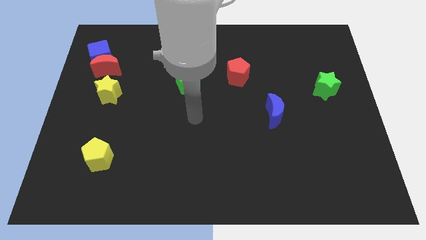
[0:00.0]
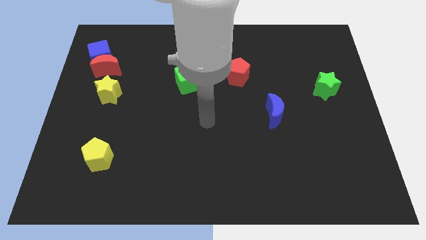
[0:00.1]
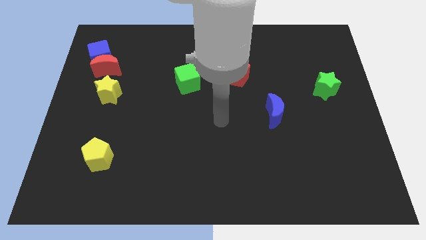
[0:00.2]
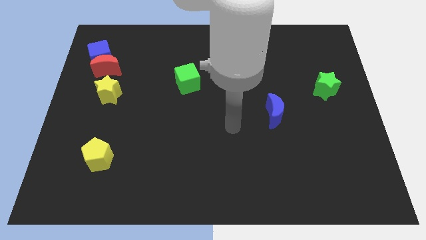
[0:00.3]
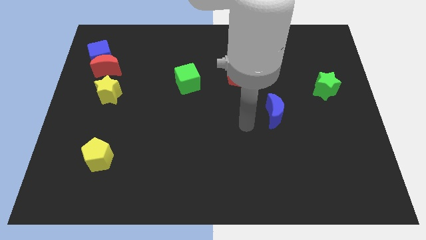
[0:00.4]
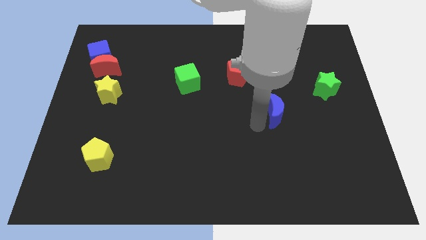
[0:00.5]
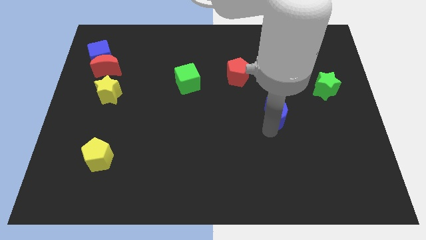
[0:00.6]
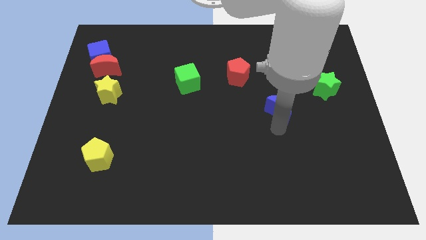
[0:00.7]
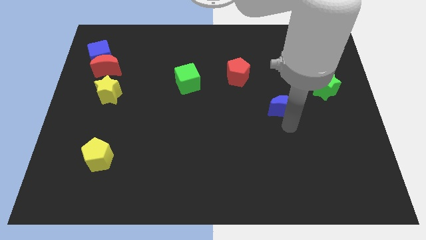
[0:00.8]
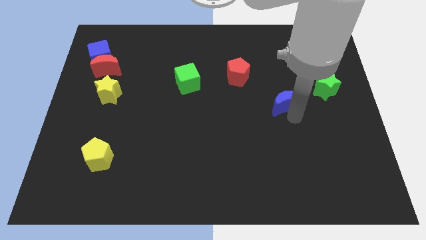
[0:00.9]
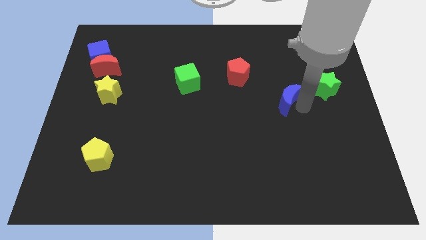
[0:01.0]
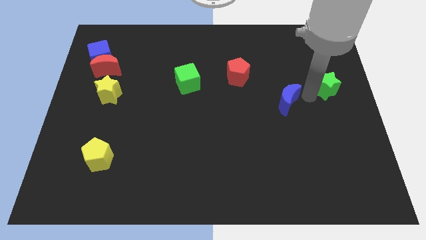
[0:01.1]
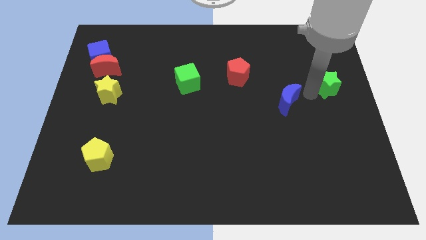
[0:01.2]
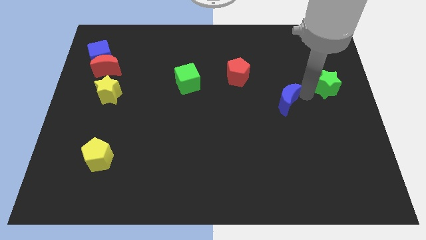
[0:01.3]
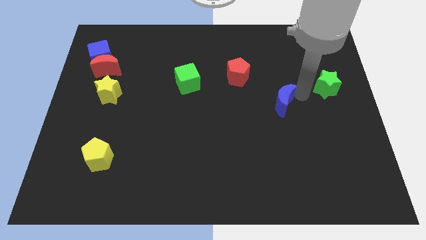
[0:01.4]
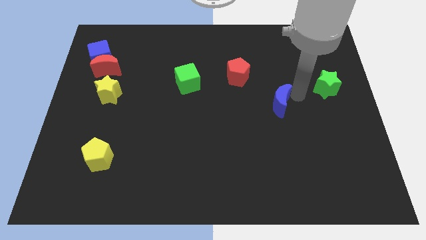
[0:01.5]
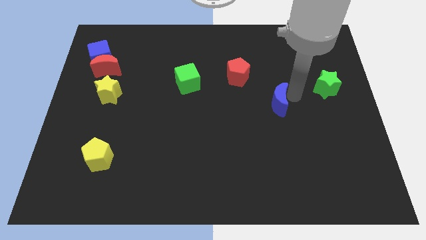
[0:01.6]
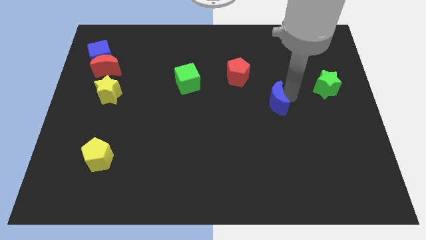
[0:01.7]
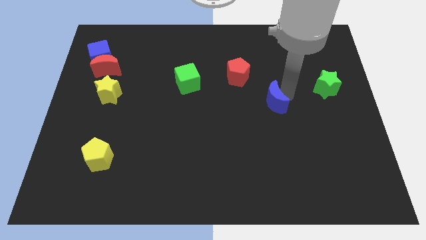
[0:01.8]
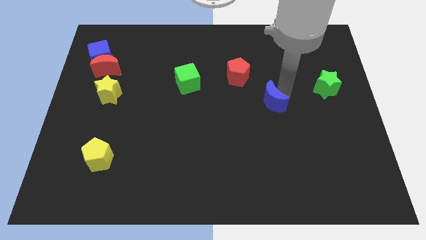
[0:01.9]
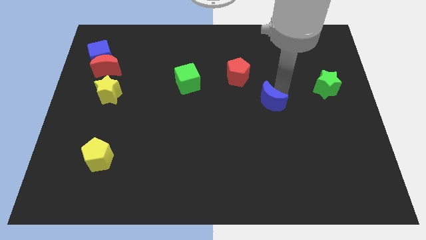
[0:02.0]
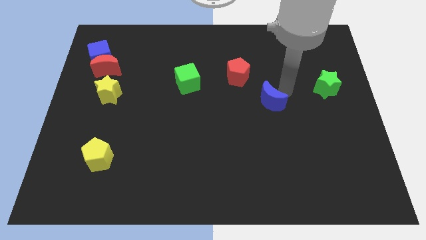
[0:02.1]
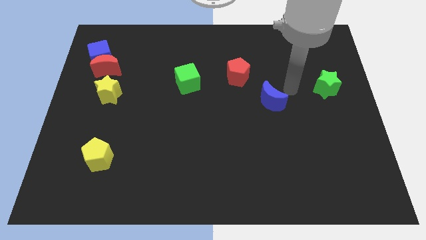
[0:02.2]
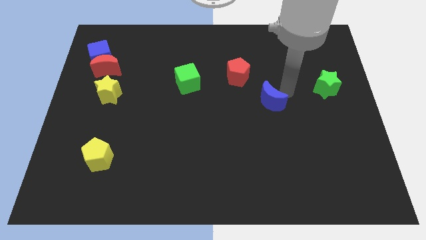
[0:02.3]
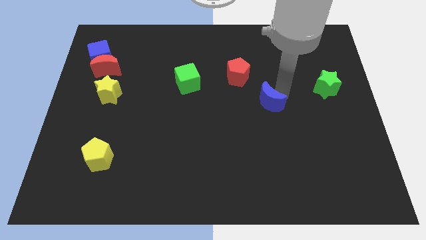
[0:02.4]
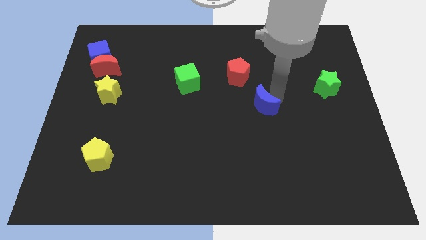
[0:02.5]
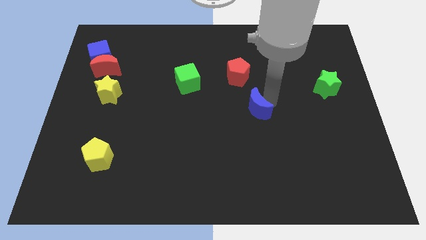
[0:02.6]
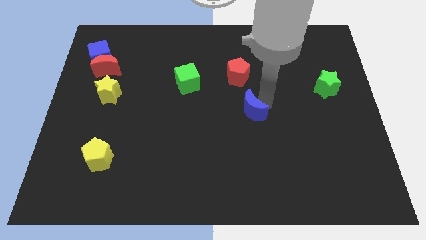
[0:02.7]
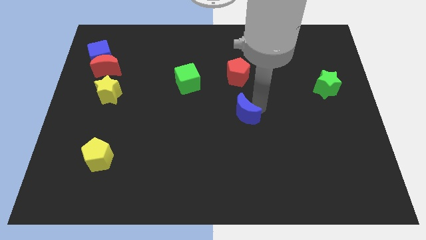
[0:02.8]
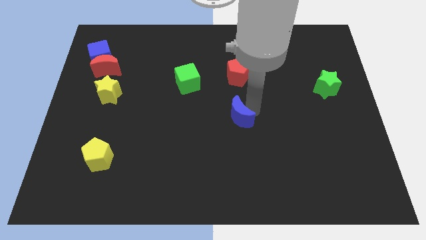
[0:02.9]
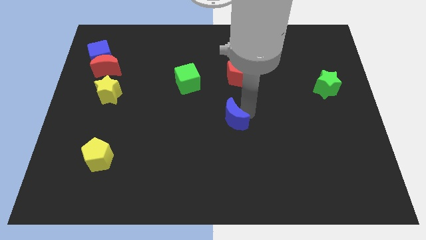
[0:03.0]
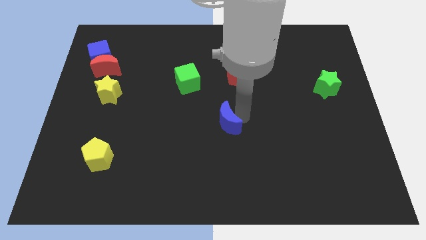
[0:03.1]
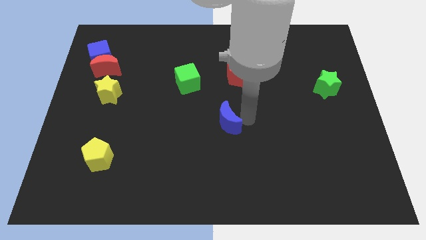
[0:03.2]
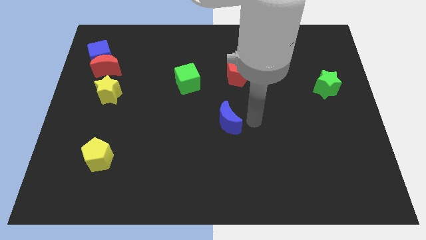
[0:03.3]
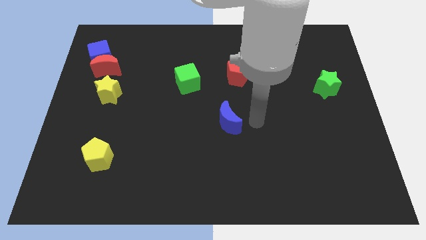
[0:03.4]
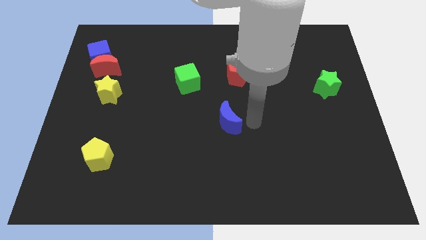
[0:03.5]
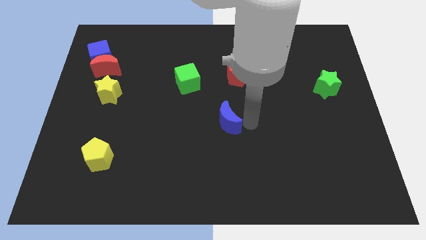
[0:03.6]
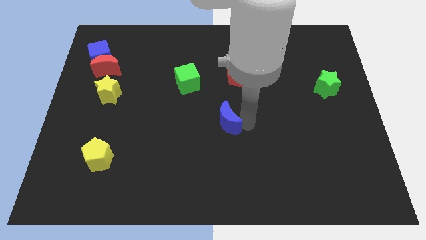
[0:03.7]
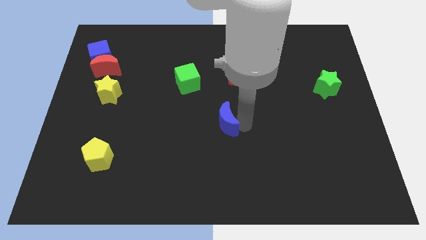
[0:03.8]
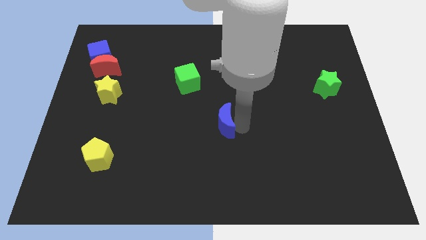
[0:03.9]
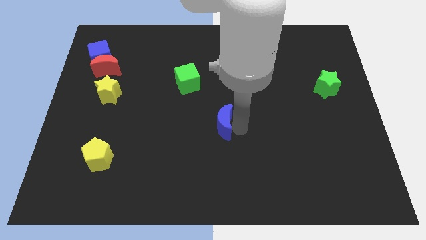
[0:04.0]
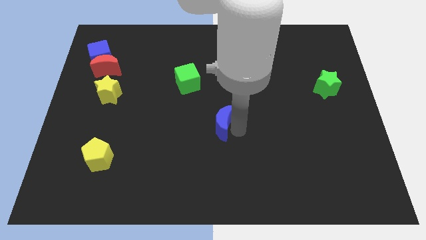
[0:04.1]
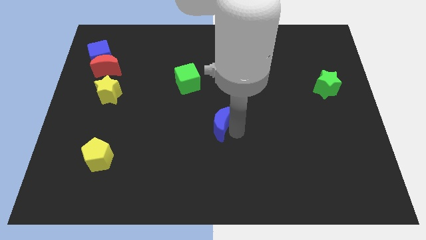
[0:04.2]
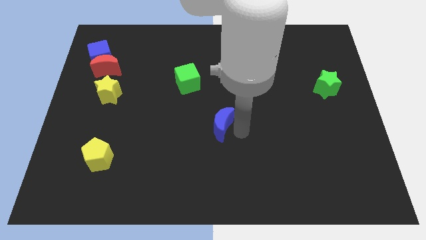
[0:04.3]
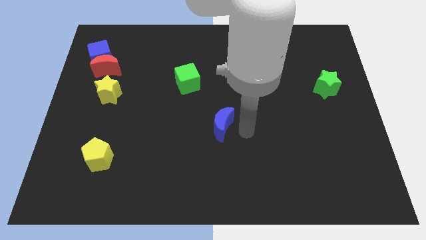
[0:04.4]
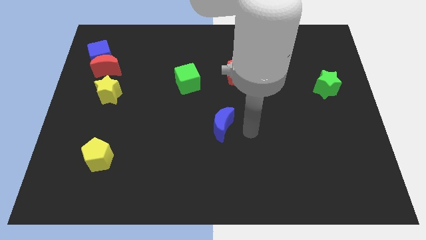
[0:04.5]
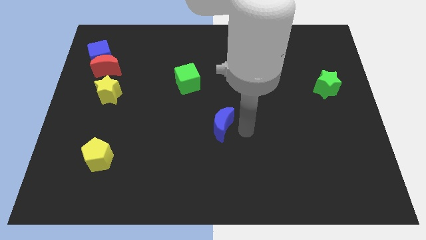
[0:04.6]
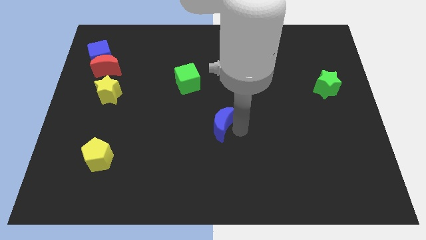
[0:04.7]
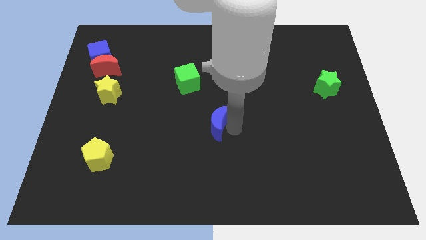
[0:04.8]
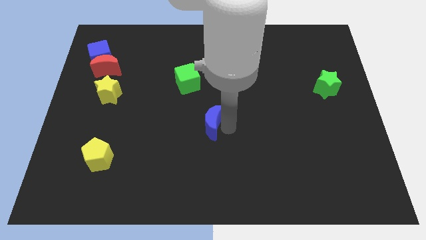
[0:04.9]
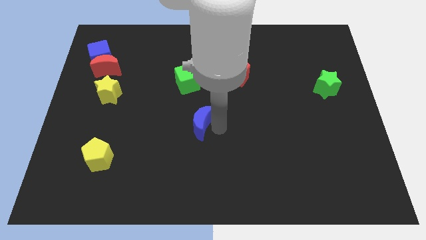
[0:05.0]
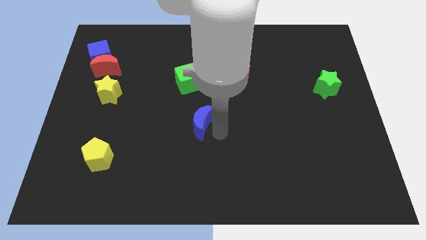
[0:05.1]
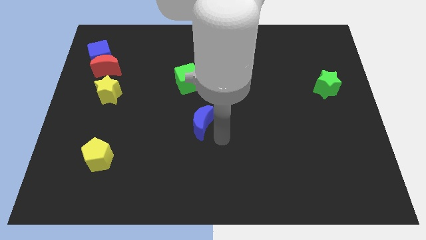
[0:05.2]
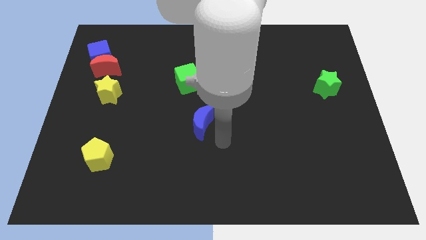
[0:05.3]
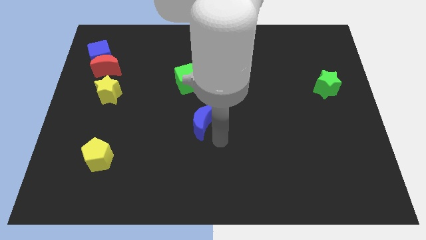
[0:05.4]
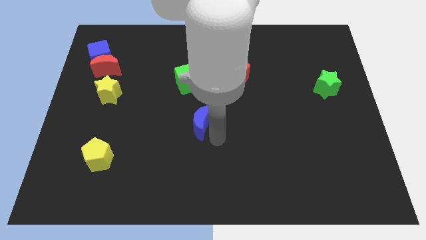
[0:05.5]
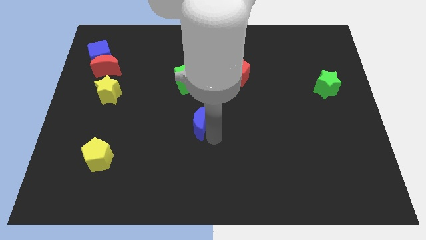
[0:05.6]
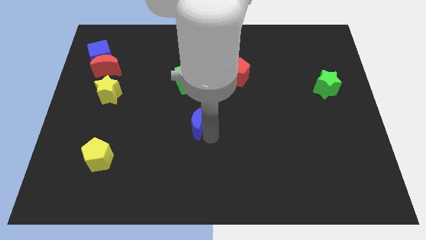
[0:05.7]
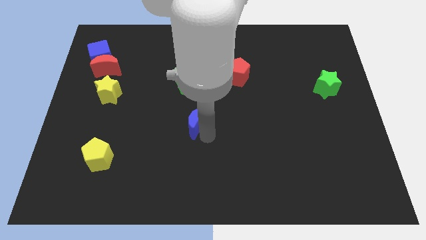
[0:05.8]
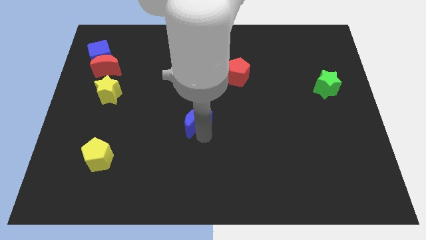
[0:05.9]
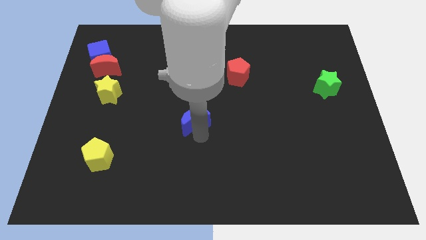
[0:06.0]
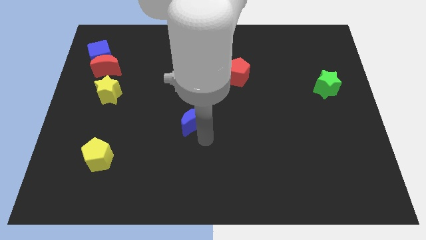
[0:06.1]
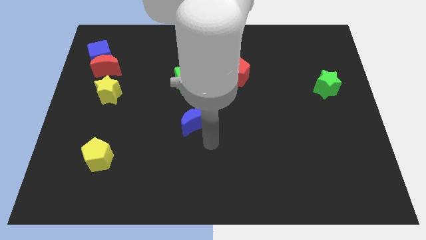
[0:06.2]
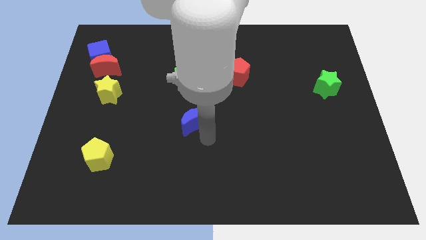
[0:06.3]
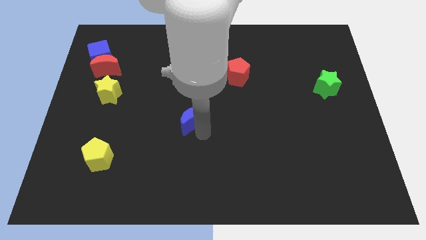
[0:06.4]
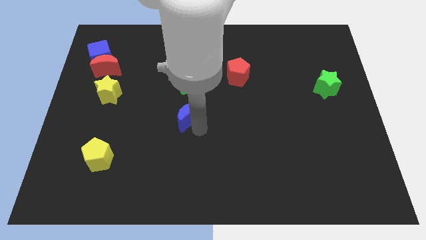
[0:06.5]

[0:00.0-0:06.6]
slide the blue moon left

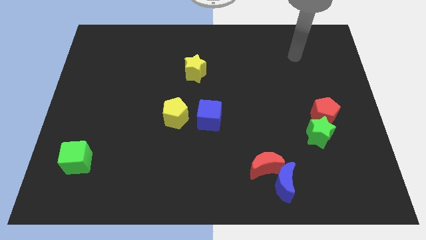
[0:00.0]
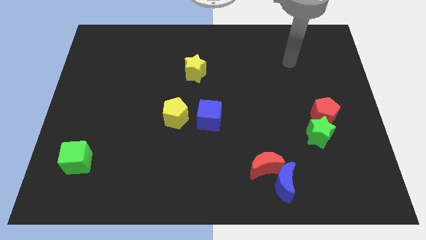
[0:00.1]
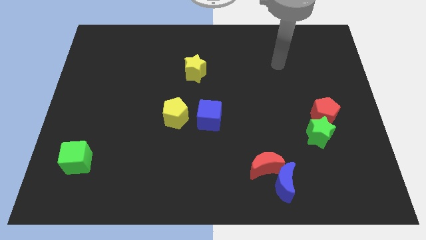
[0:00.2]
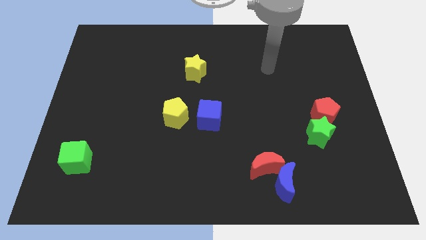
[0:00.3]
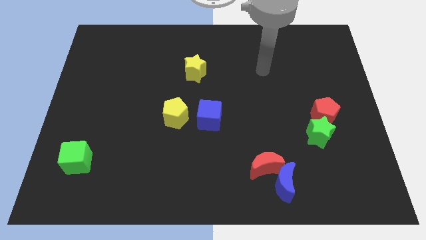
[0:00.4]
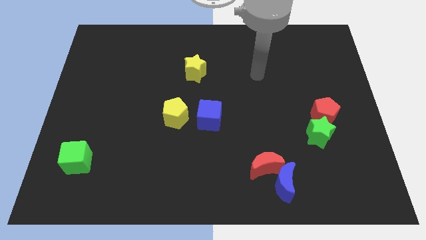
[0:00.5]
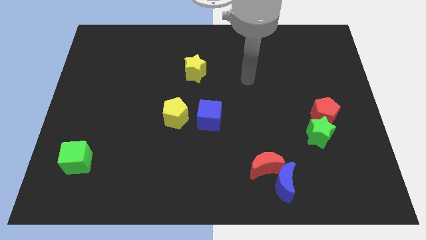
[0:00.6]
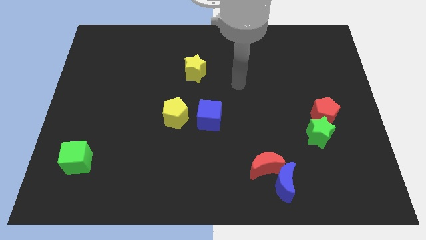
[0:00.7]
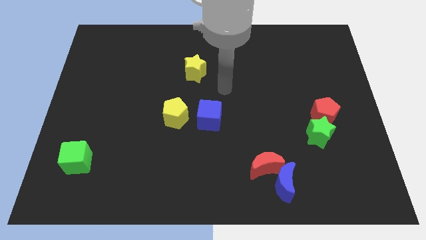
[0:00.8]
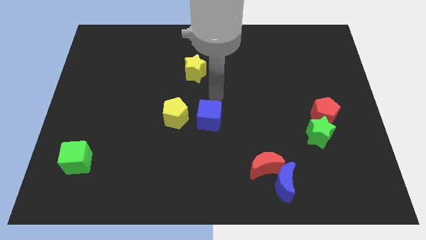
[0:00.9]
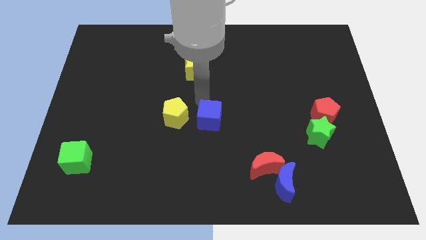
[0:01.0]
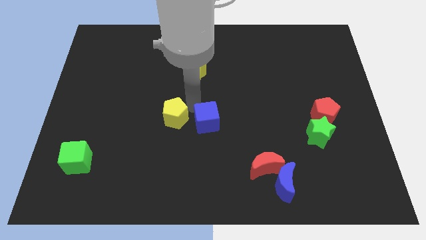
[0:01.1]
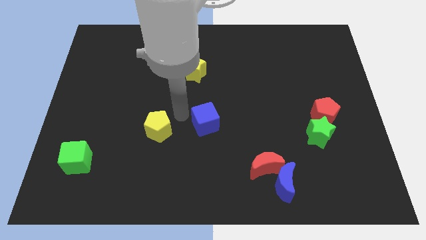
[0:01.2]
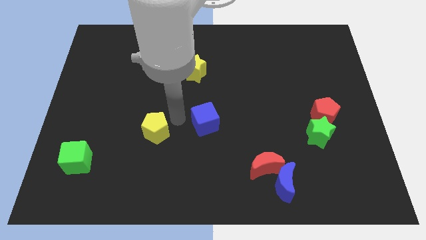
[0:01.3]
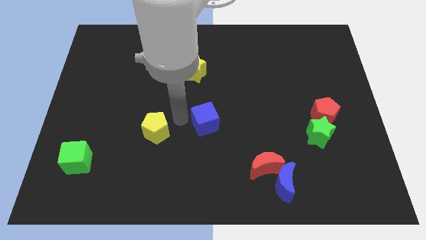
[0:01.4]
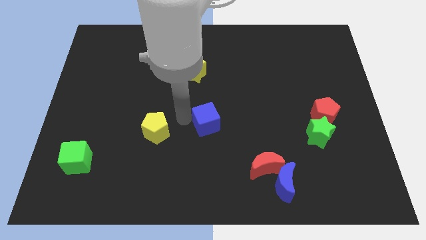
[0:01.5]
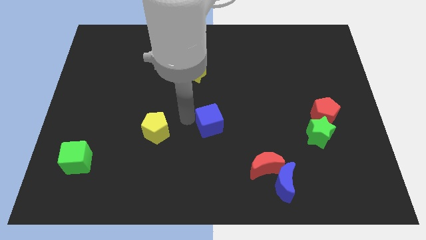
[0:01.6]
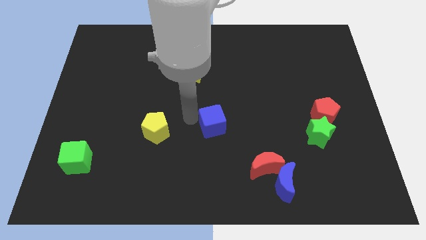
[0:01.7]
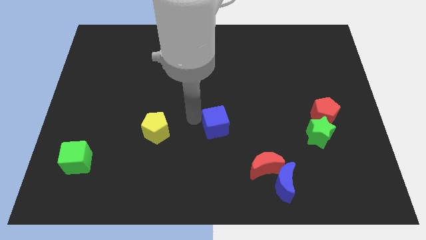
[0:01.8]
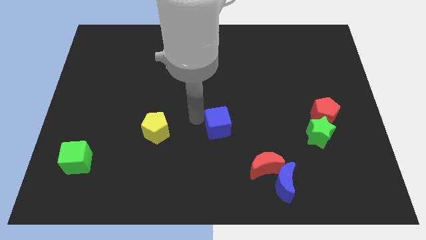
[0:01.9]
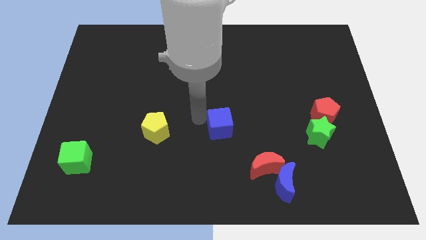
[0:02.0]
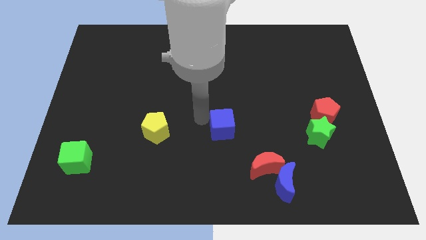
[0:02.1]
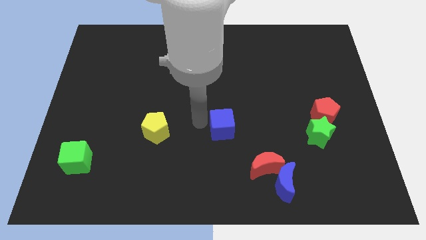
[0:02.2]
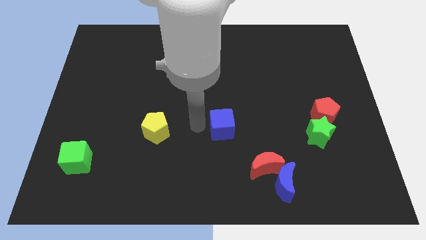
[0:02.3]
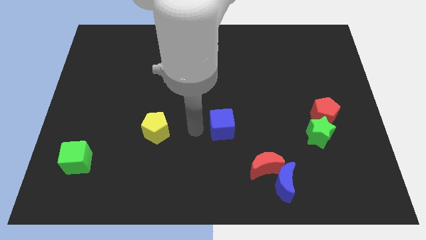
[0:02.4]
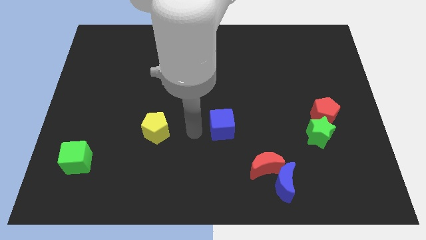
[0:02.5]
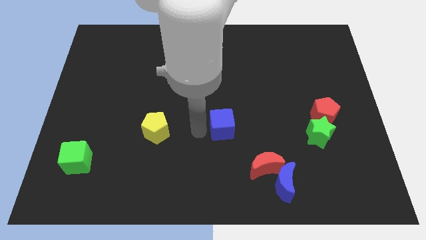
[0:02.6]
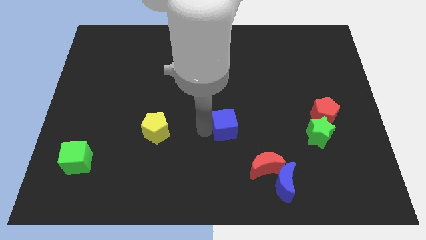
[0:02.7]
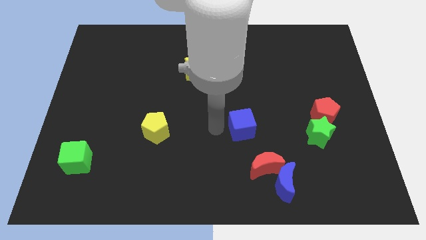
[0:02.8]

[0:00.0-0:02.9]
slightly push the blue cube to the right
